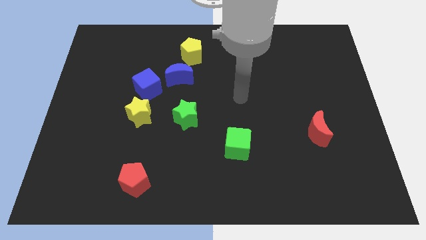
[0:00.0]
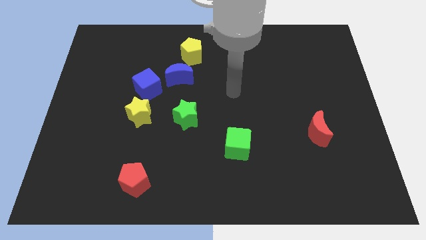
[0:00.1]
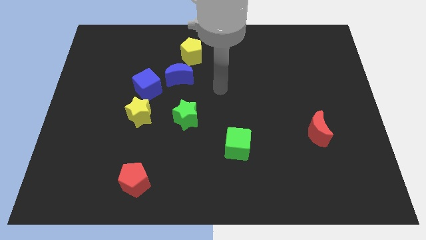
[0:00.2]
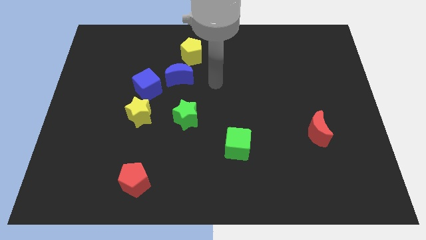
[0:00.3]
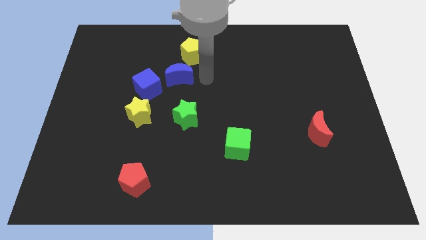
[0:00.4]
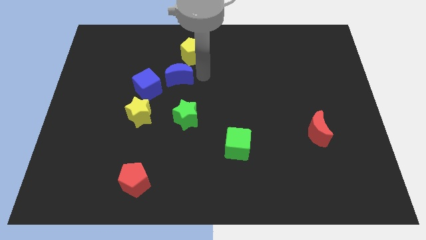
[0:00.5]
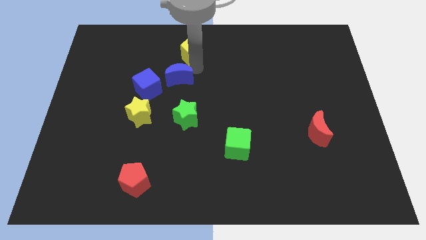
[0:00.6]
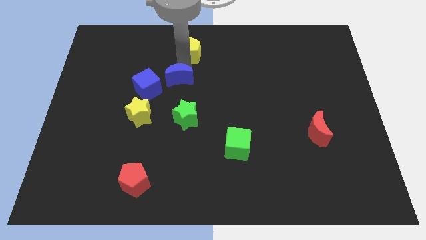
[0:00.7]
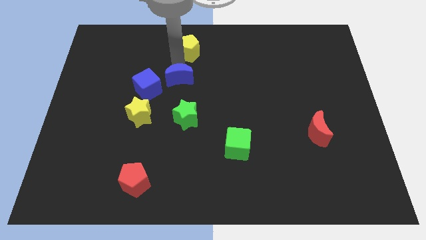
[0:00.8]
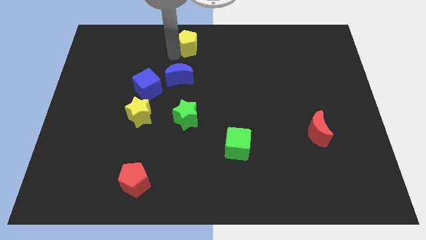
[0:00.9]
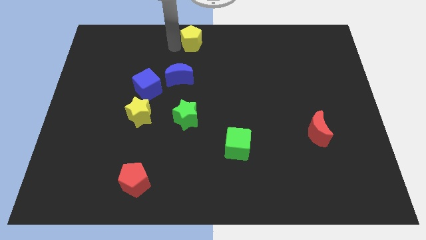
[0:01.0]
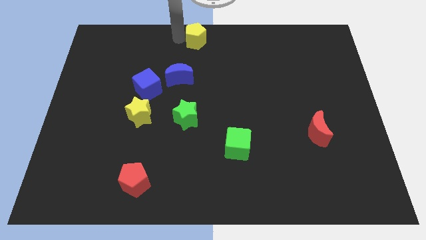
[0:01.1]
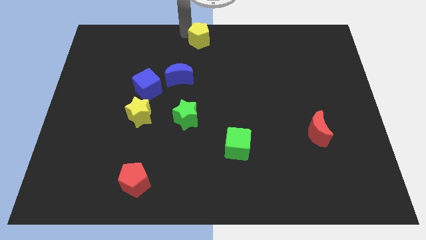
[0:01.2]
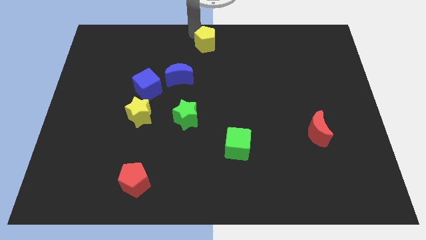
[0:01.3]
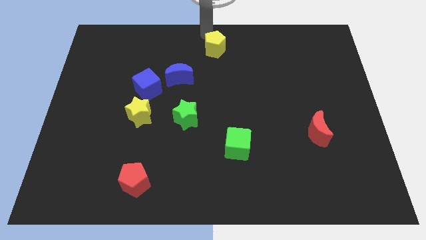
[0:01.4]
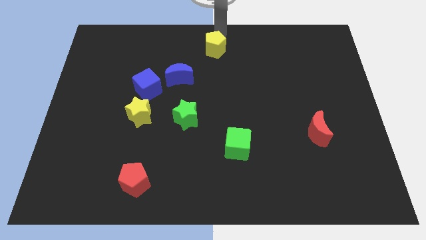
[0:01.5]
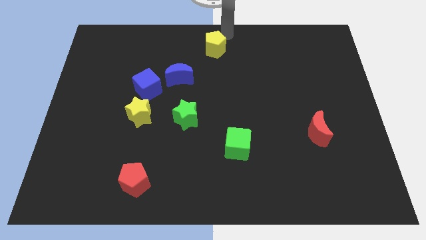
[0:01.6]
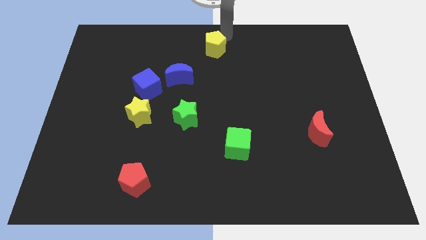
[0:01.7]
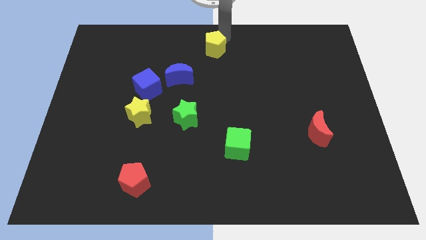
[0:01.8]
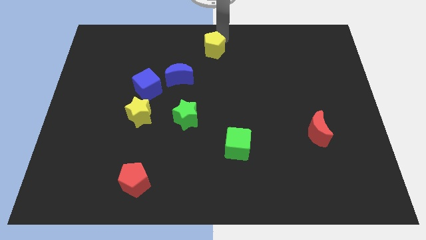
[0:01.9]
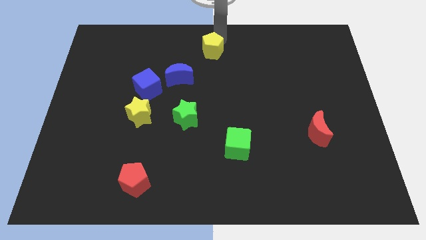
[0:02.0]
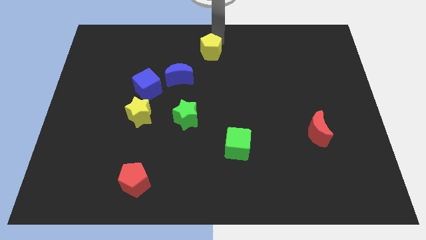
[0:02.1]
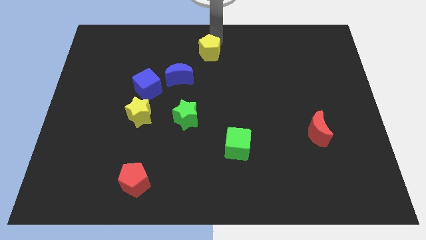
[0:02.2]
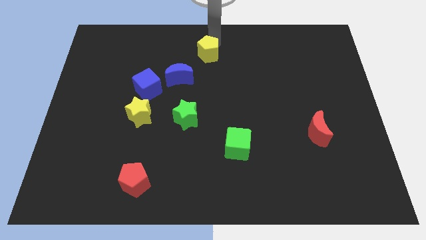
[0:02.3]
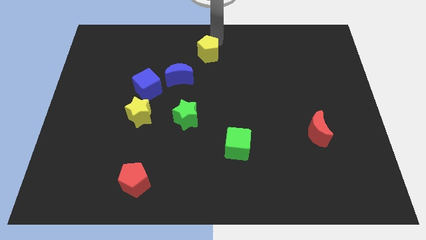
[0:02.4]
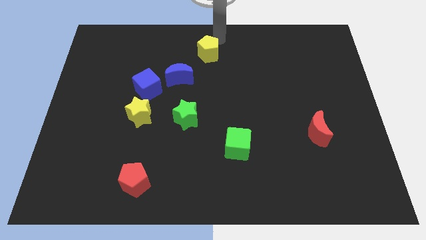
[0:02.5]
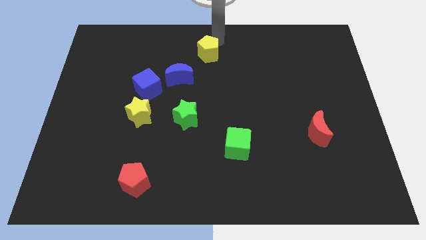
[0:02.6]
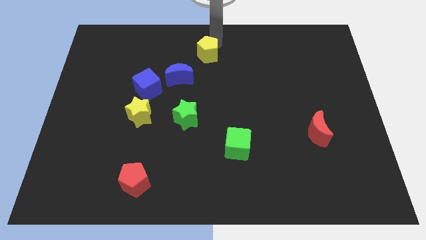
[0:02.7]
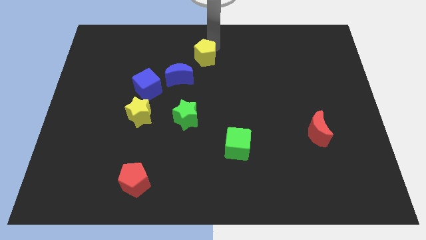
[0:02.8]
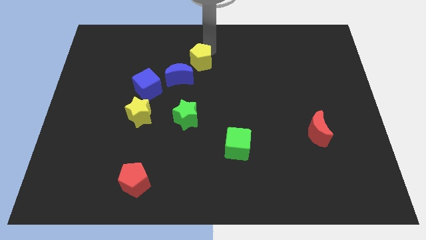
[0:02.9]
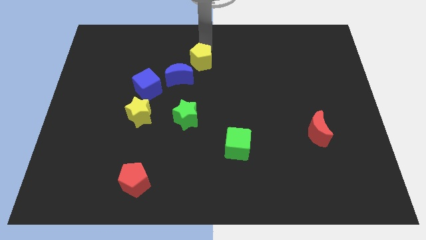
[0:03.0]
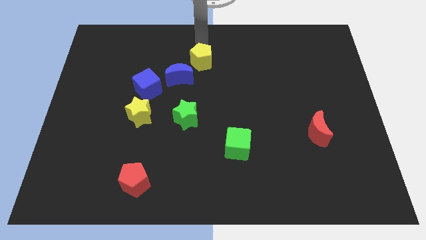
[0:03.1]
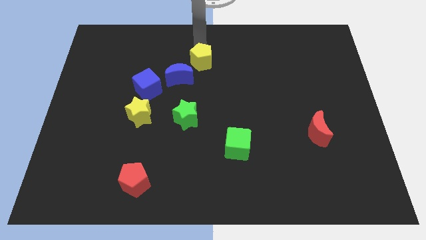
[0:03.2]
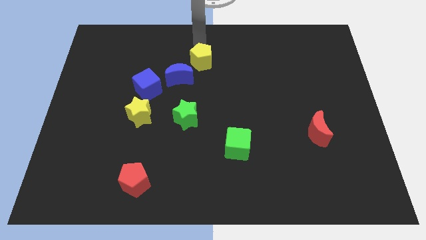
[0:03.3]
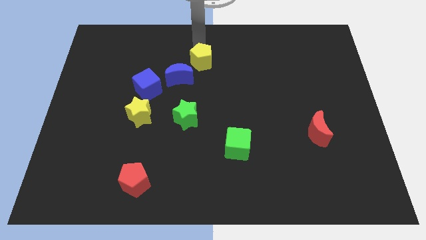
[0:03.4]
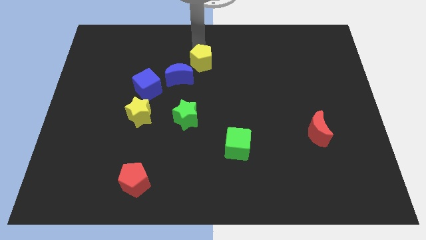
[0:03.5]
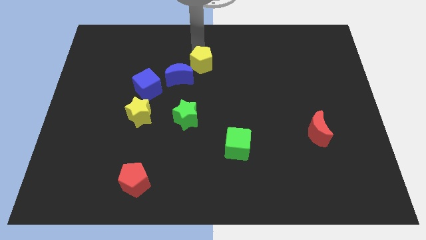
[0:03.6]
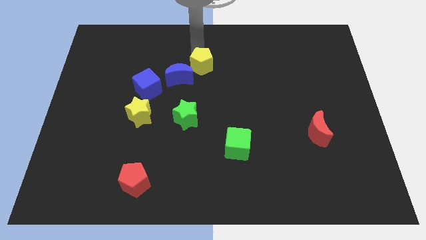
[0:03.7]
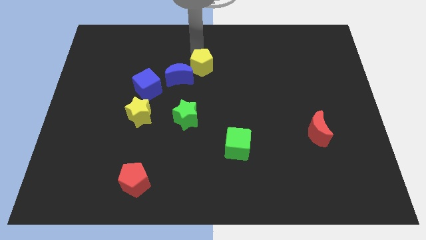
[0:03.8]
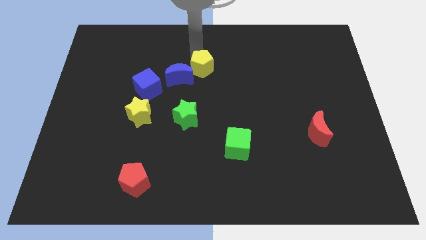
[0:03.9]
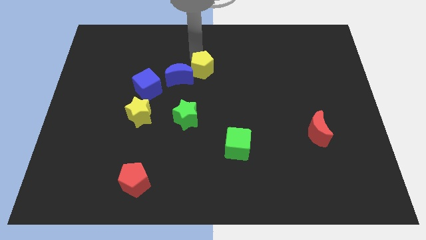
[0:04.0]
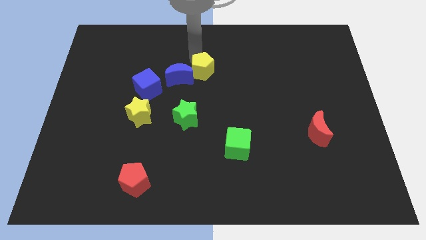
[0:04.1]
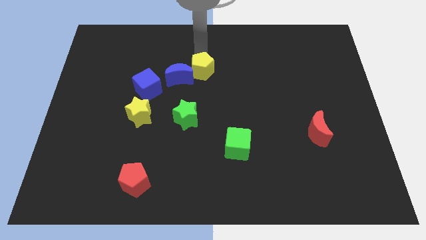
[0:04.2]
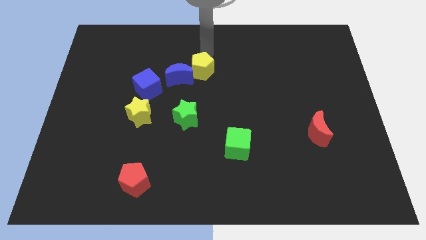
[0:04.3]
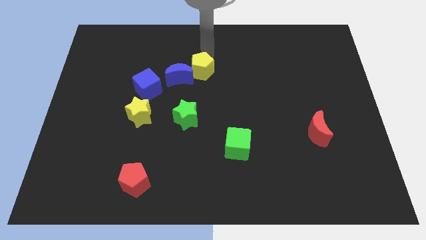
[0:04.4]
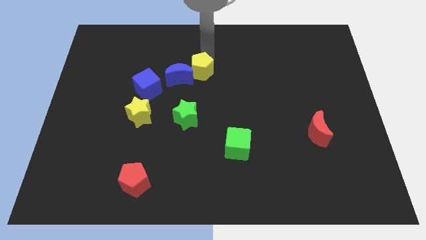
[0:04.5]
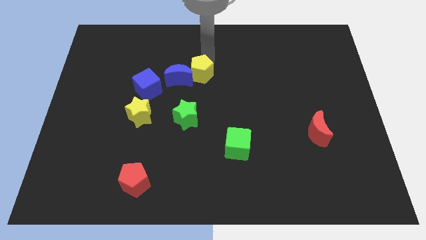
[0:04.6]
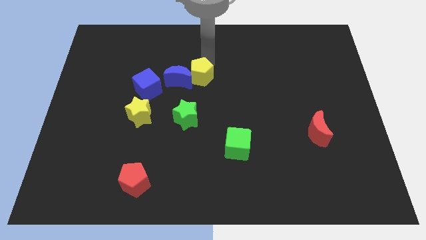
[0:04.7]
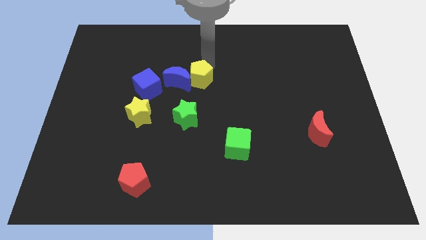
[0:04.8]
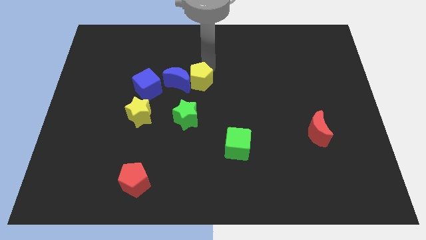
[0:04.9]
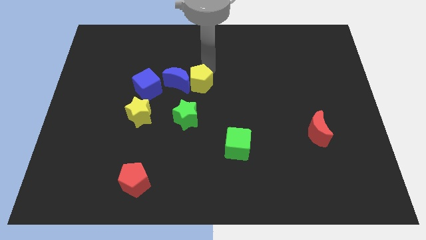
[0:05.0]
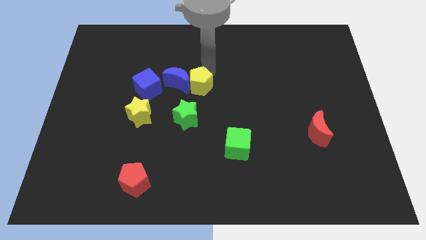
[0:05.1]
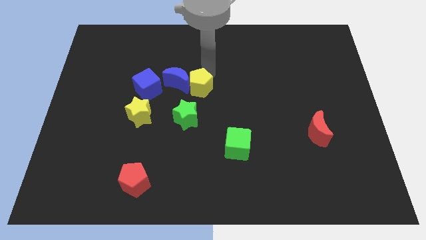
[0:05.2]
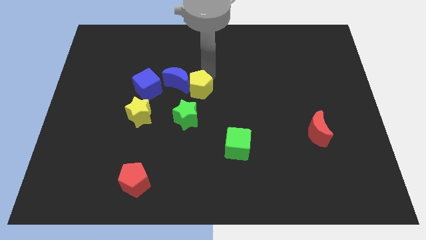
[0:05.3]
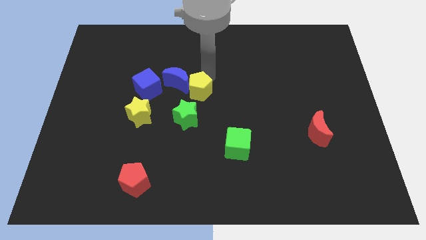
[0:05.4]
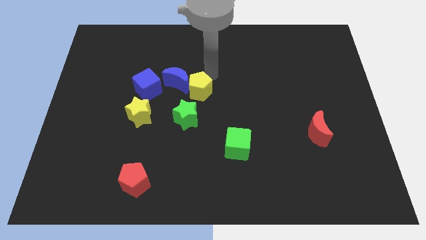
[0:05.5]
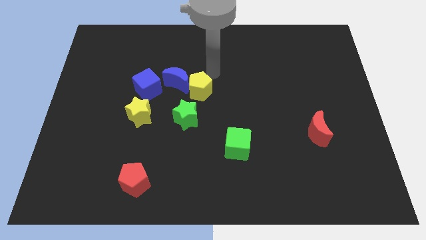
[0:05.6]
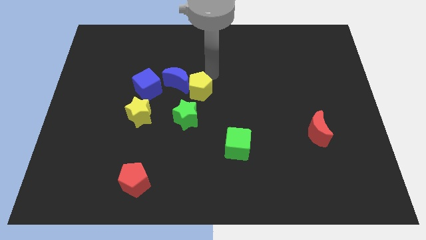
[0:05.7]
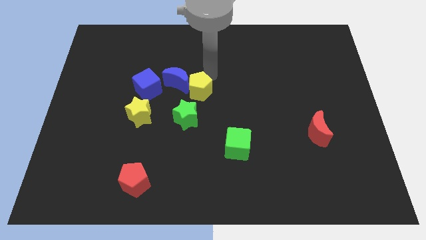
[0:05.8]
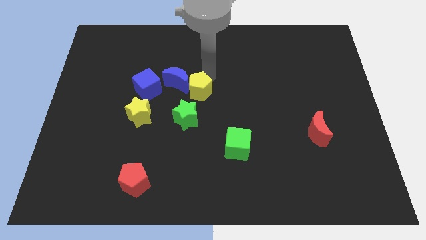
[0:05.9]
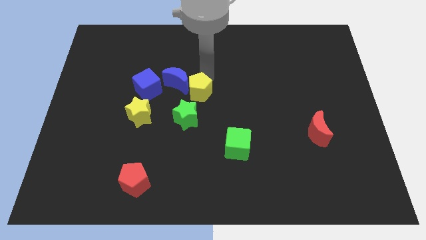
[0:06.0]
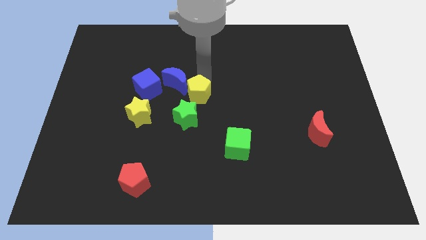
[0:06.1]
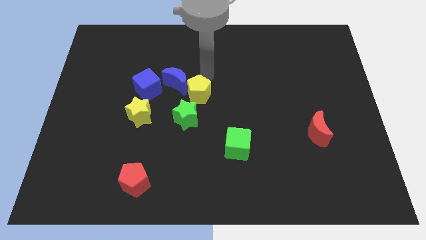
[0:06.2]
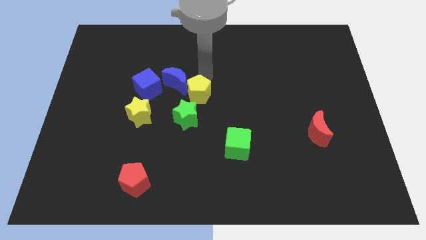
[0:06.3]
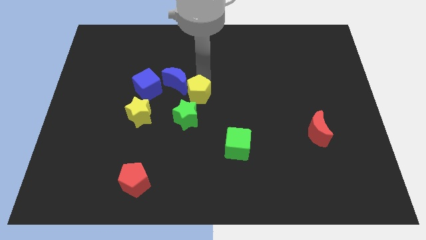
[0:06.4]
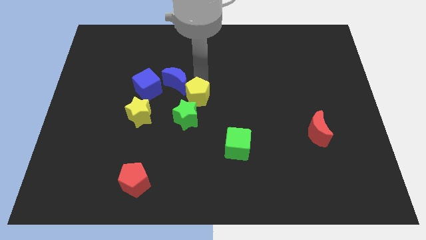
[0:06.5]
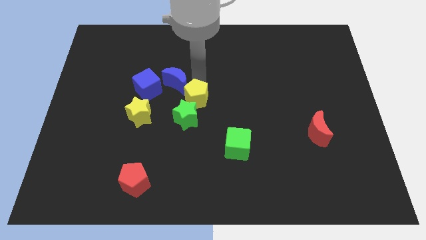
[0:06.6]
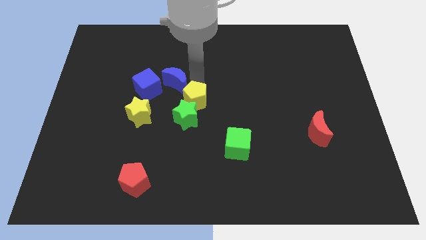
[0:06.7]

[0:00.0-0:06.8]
put the yellow pentagon towards the green star

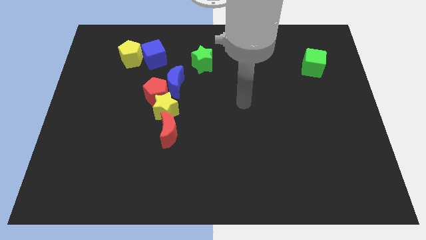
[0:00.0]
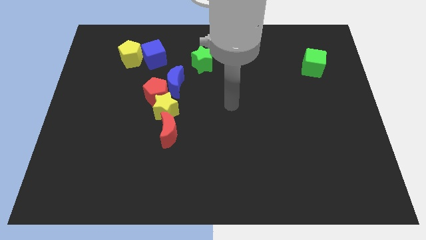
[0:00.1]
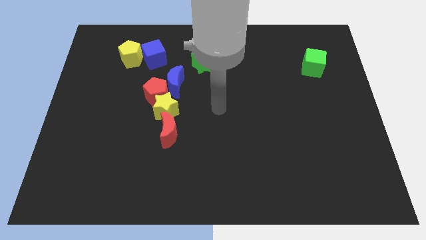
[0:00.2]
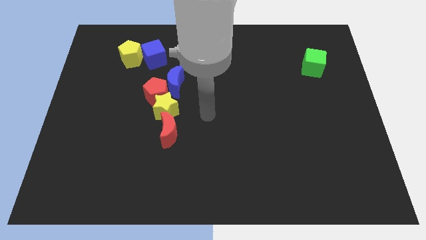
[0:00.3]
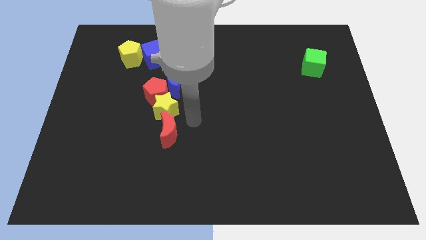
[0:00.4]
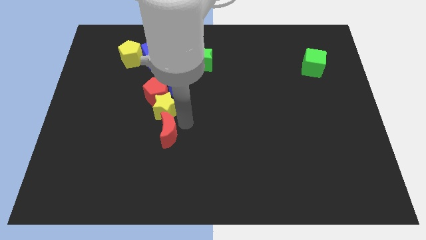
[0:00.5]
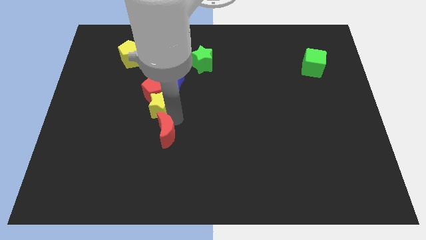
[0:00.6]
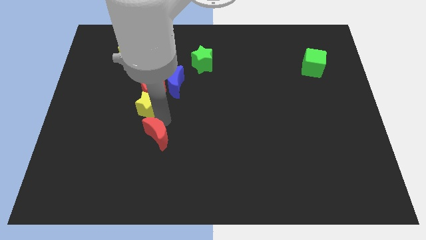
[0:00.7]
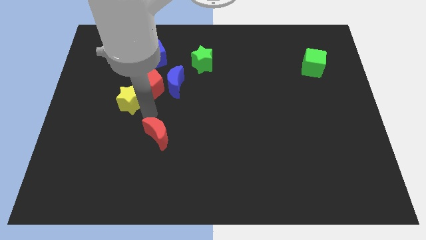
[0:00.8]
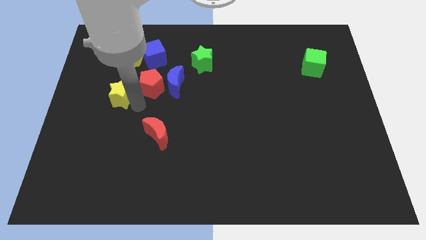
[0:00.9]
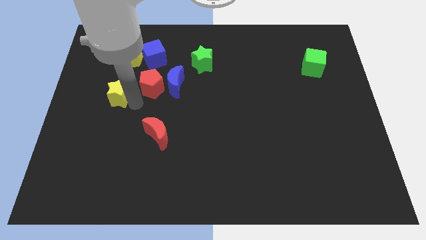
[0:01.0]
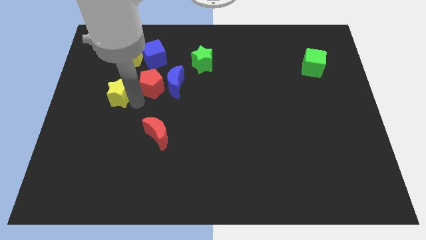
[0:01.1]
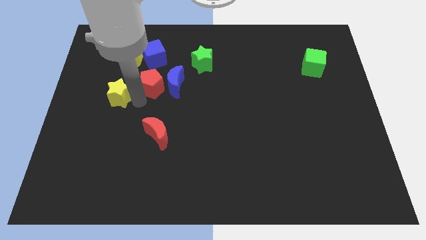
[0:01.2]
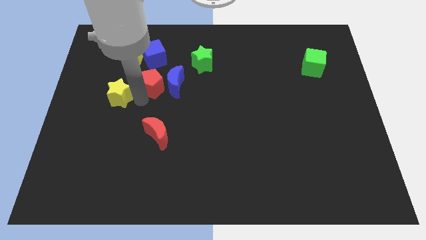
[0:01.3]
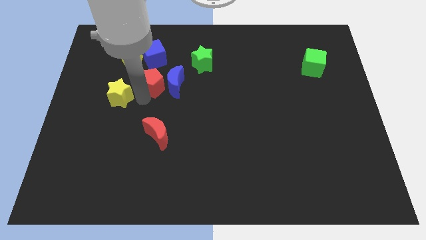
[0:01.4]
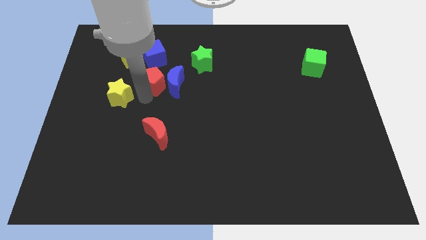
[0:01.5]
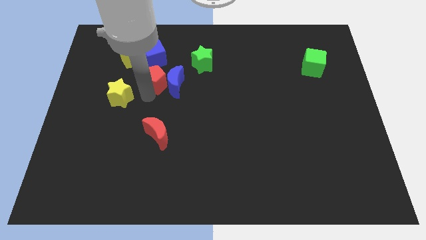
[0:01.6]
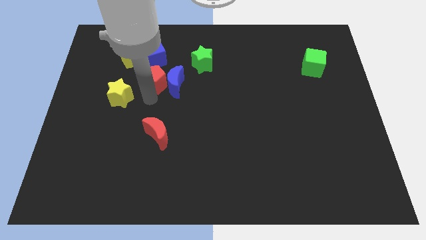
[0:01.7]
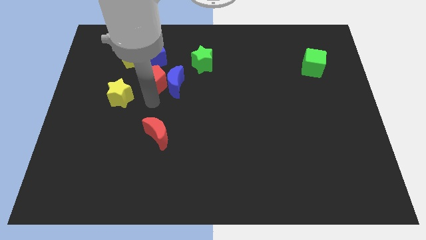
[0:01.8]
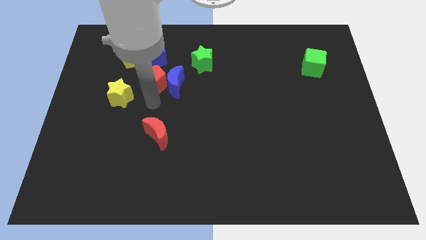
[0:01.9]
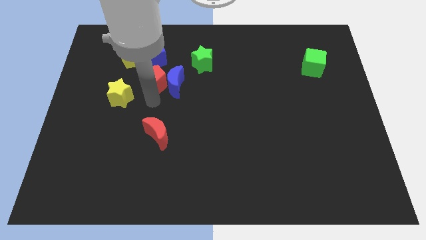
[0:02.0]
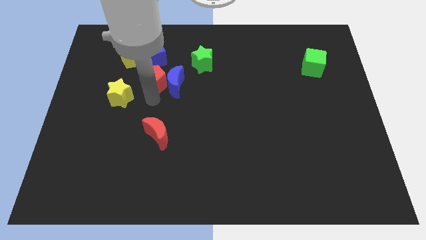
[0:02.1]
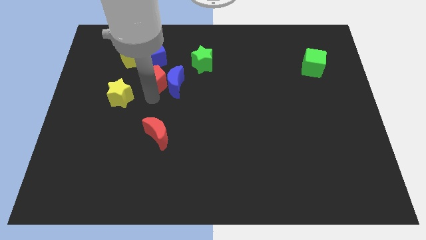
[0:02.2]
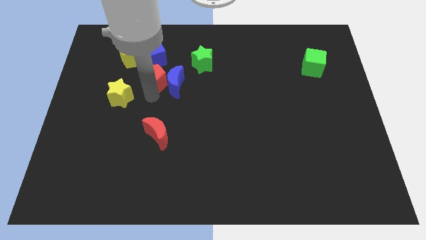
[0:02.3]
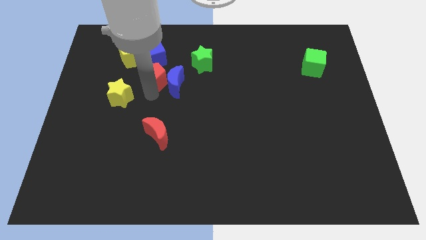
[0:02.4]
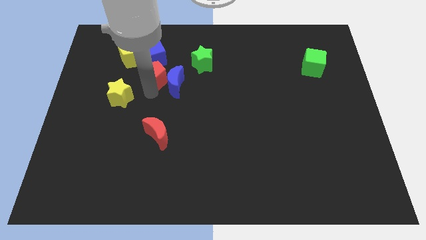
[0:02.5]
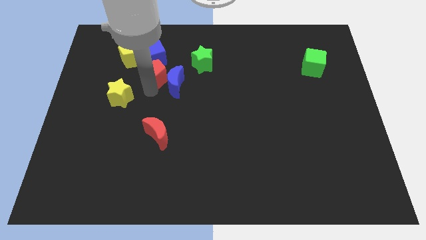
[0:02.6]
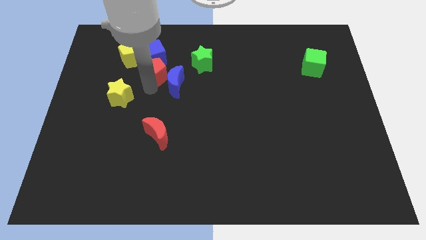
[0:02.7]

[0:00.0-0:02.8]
move the red pentagon to the blue cube
